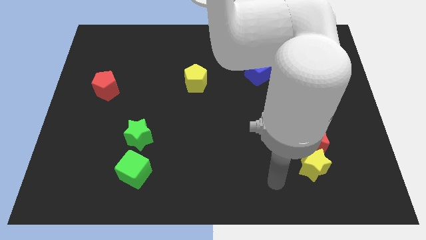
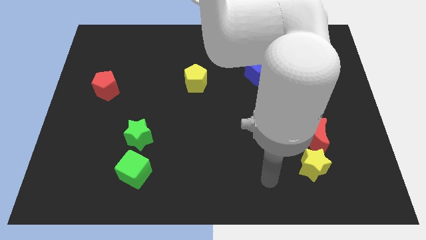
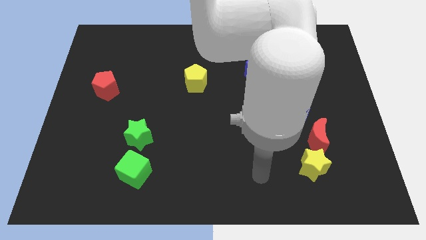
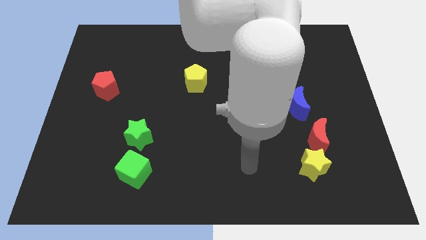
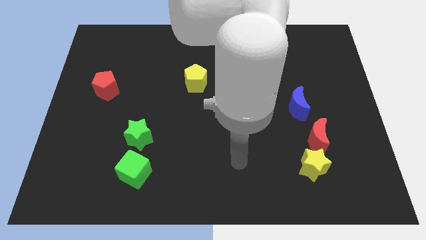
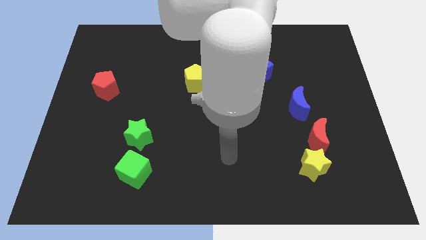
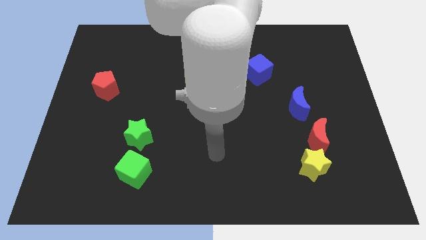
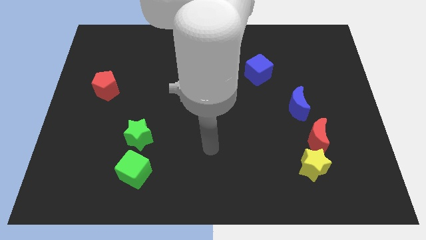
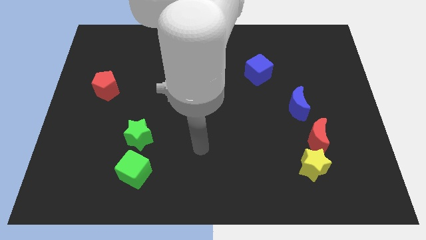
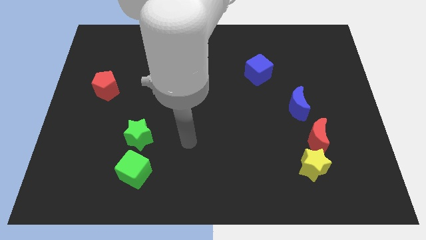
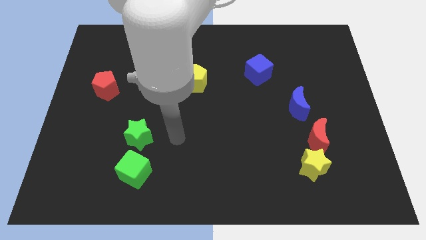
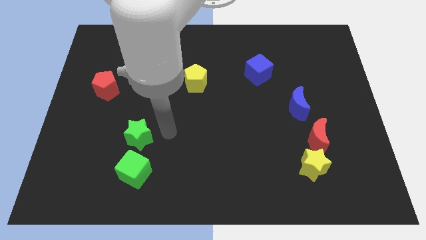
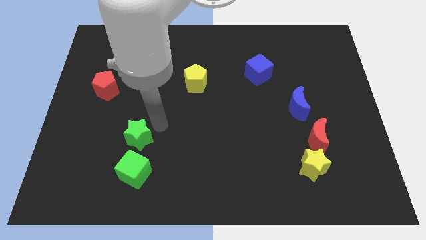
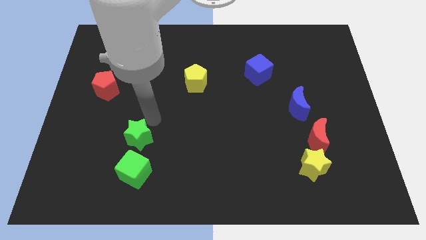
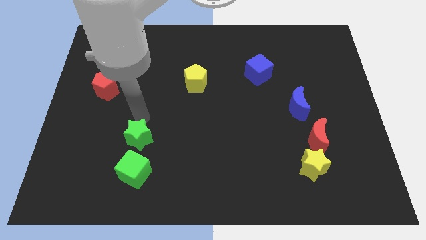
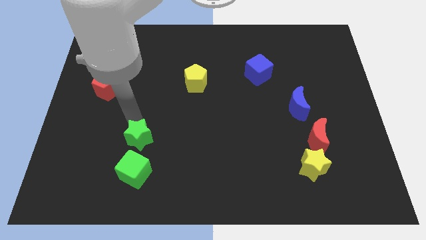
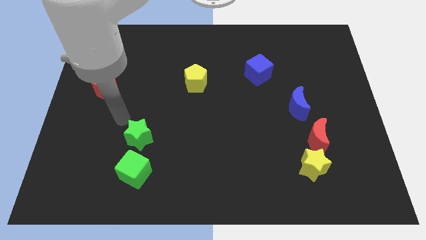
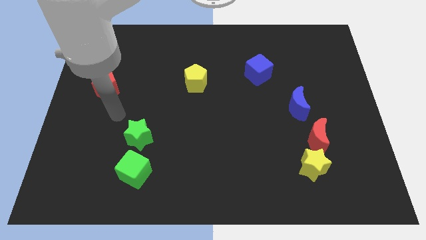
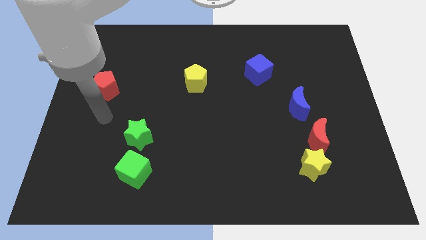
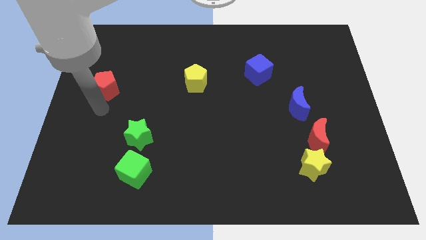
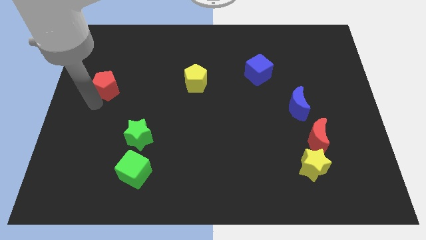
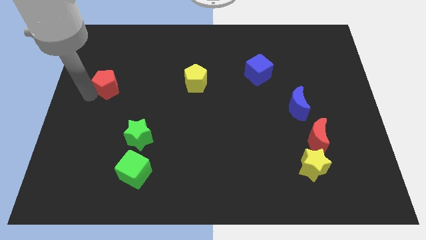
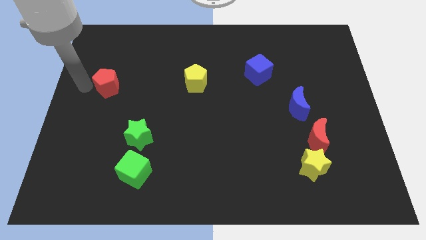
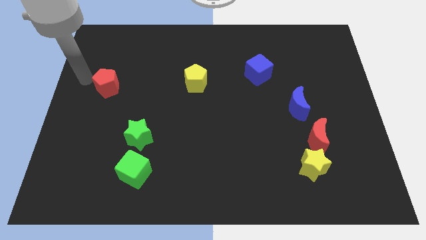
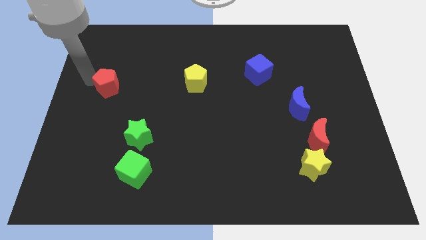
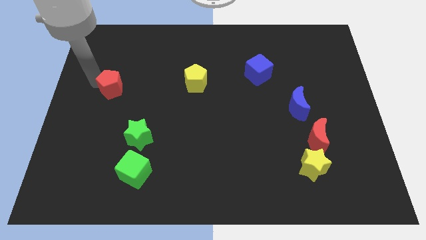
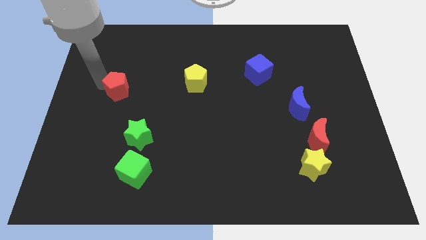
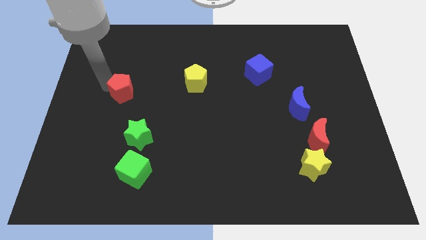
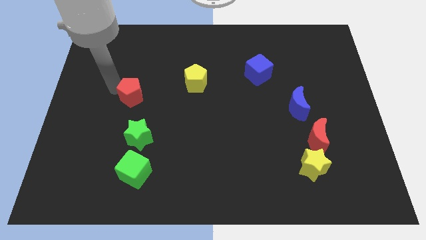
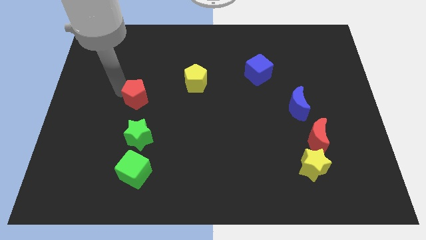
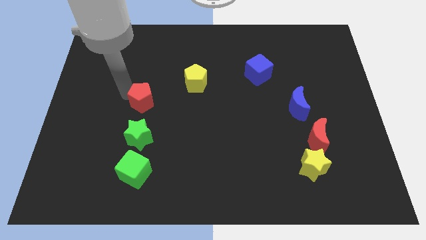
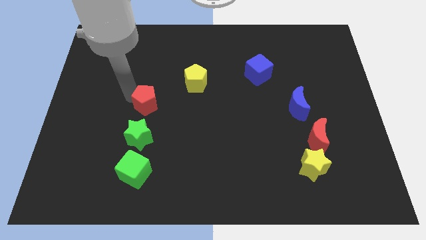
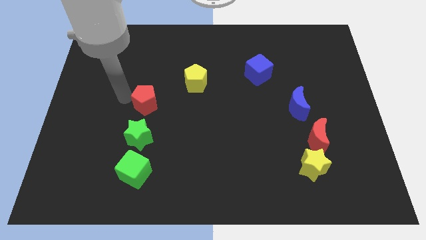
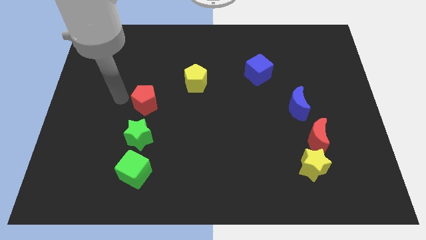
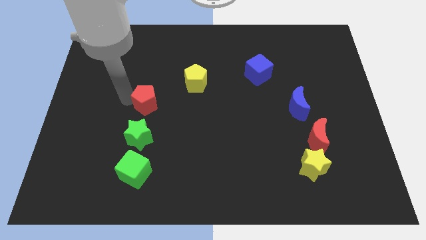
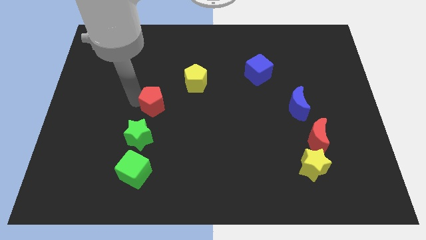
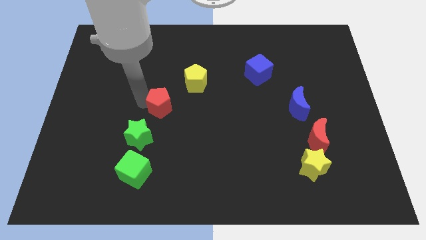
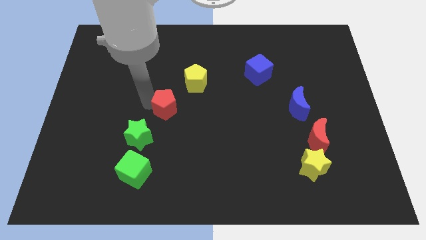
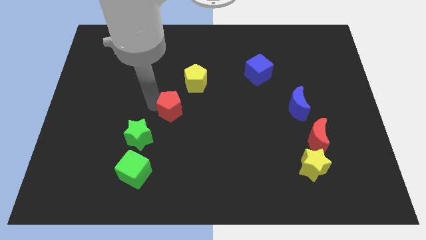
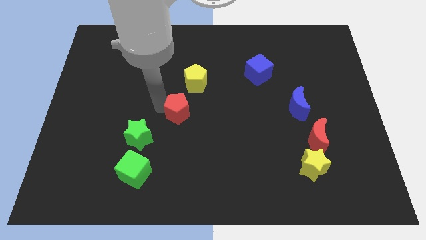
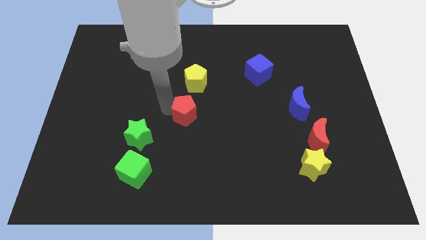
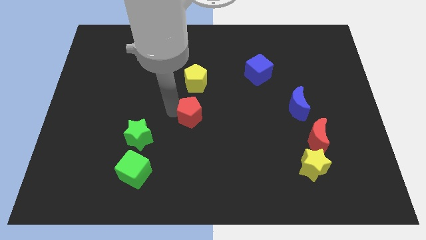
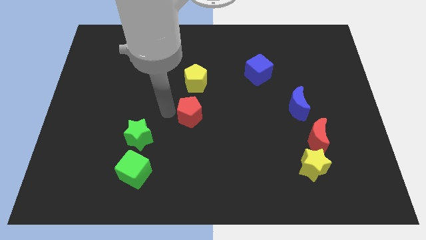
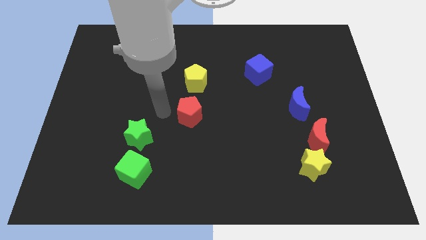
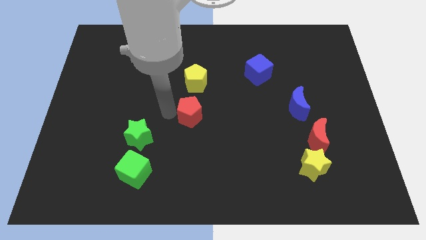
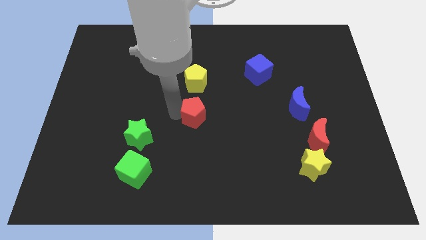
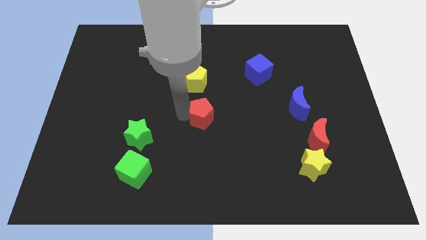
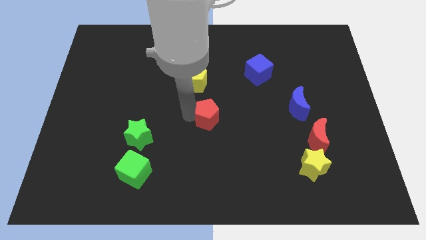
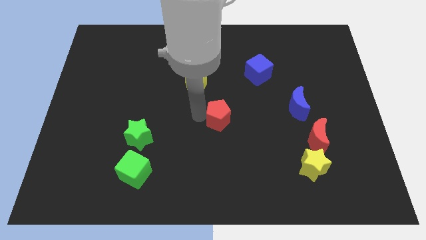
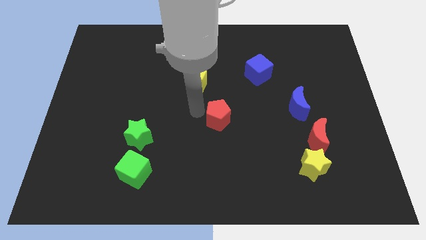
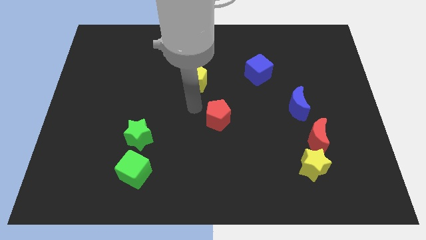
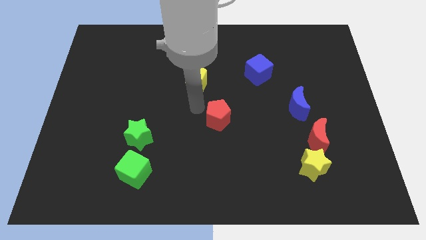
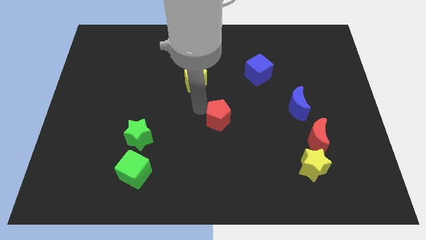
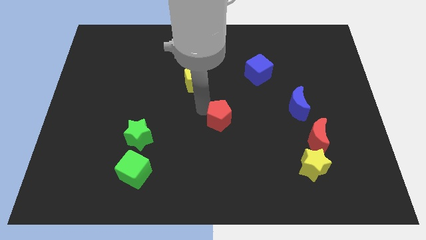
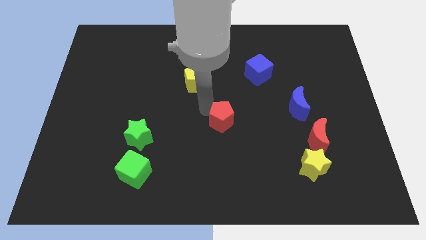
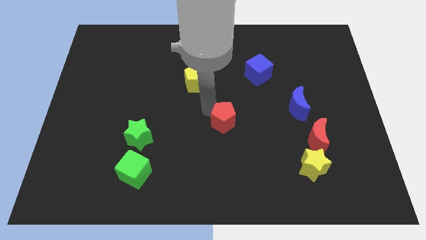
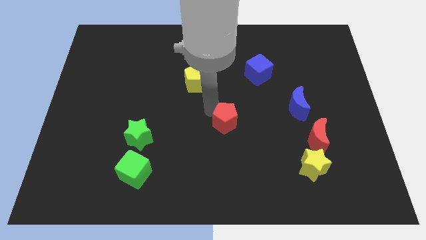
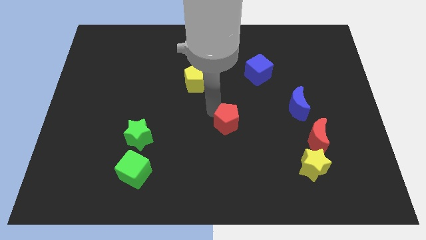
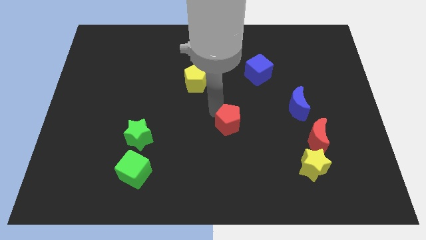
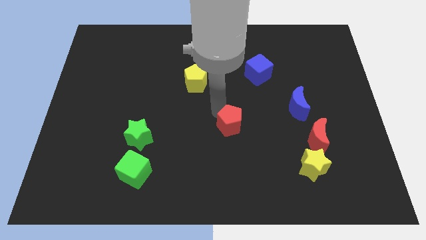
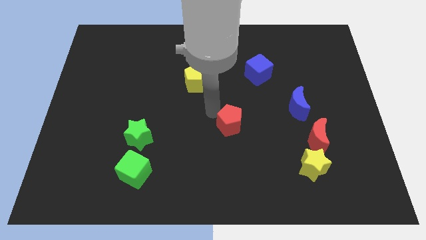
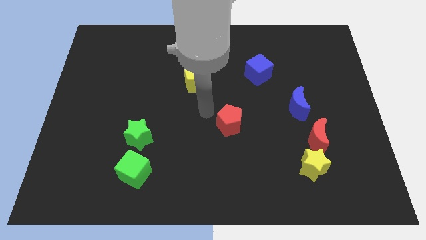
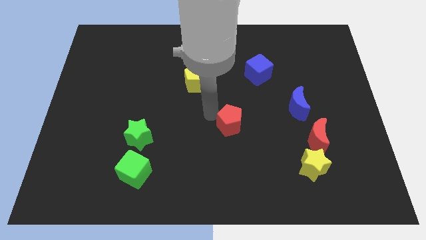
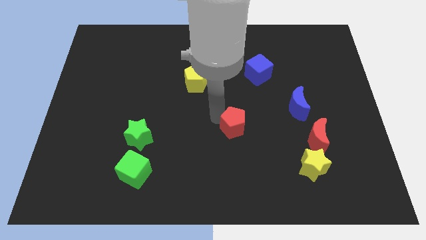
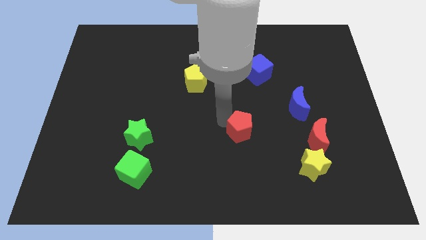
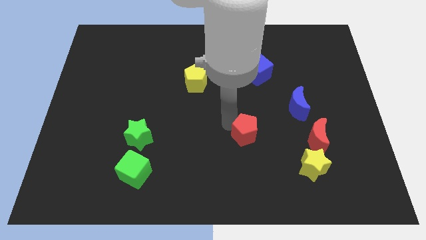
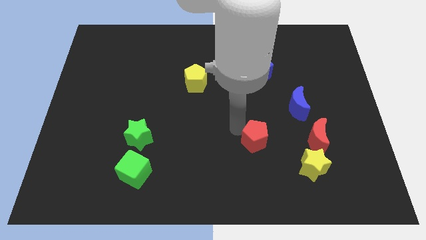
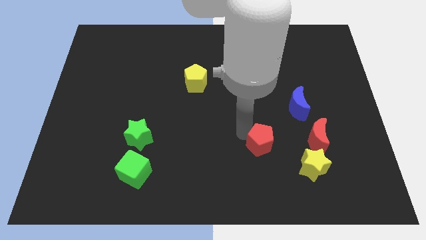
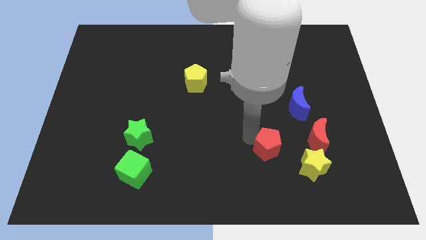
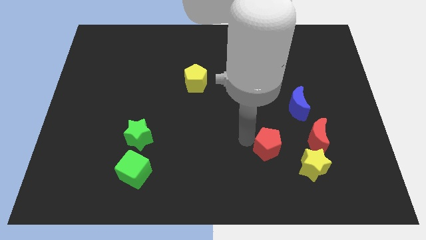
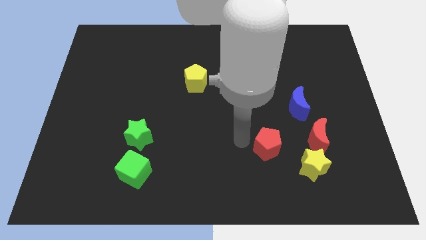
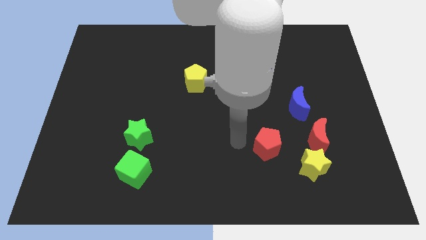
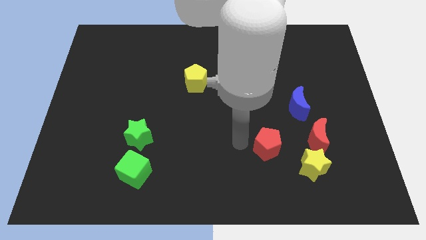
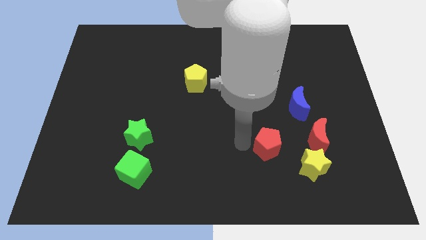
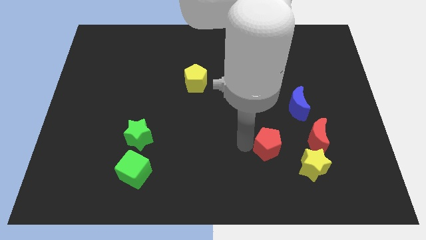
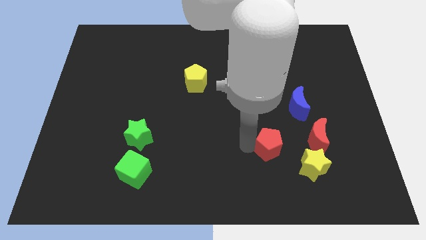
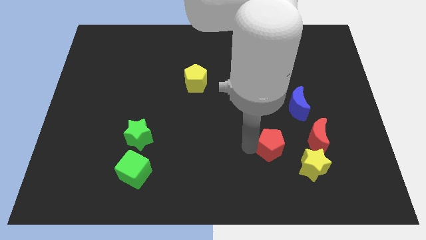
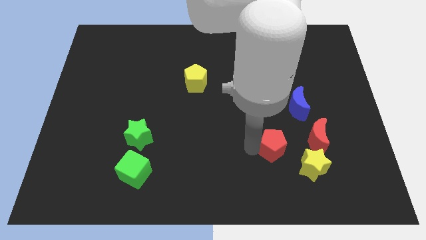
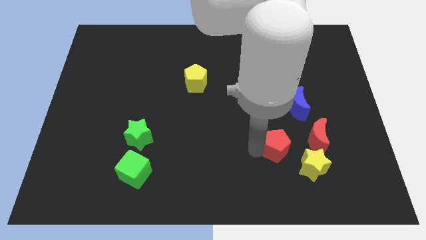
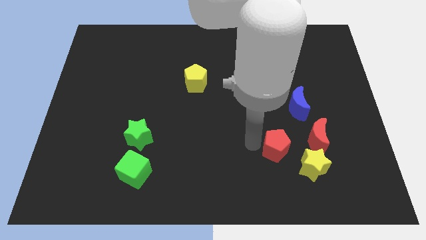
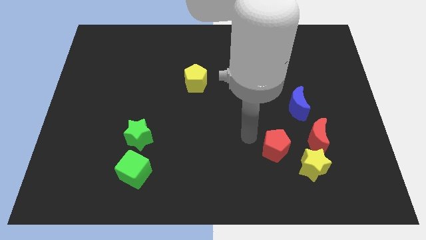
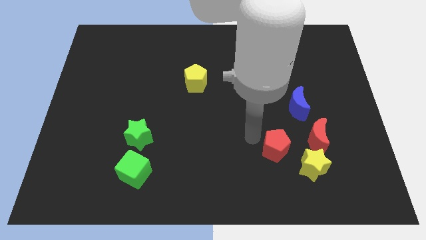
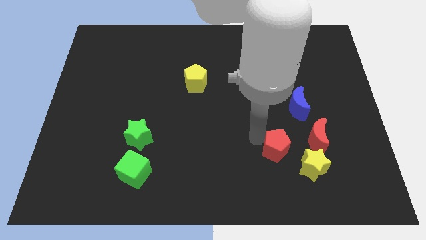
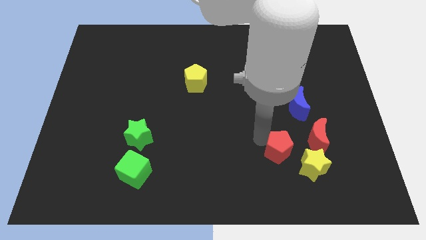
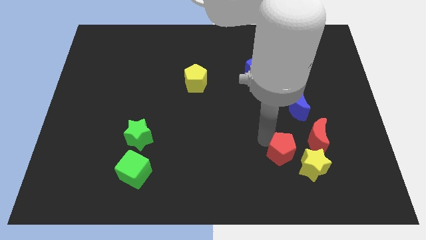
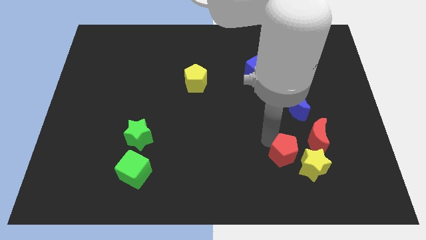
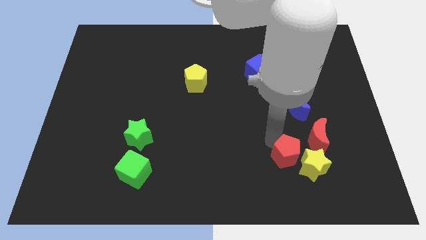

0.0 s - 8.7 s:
push the red pentagon to the yellow star
